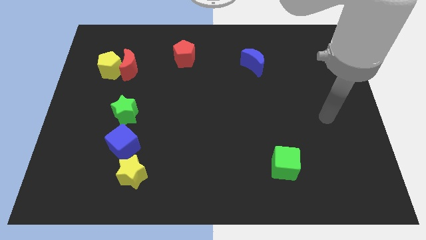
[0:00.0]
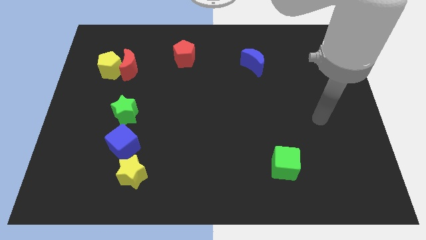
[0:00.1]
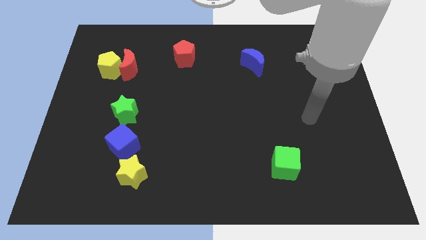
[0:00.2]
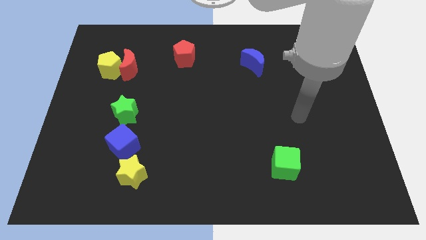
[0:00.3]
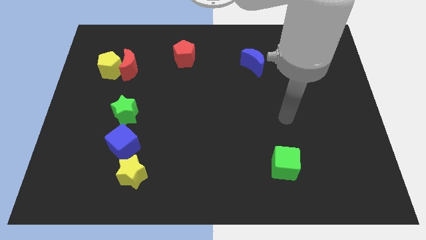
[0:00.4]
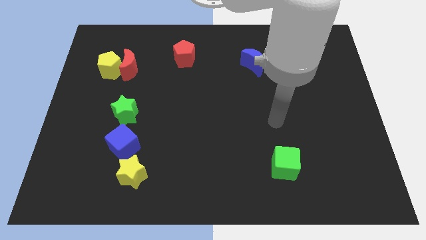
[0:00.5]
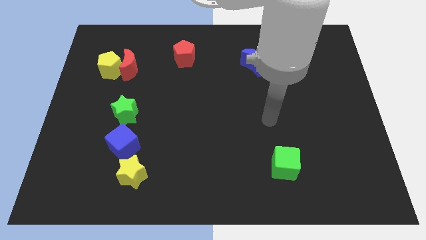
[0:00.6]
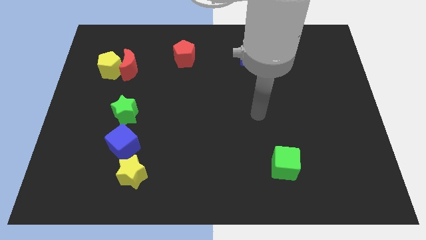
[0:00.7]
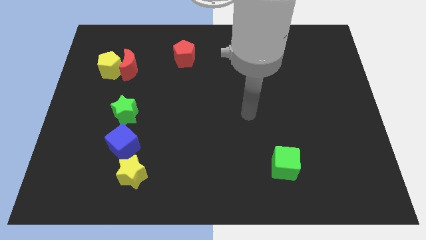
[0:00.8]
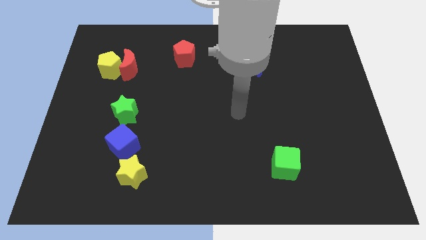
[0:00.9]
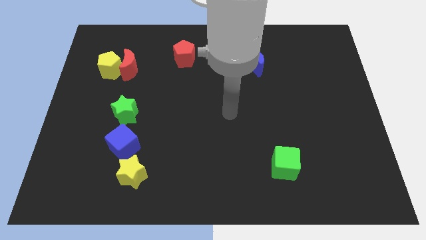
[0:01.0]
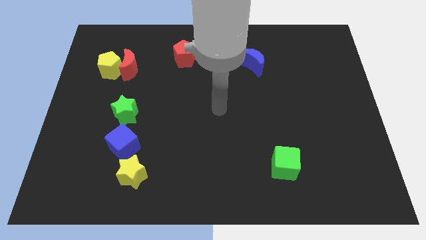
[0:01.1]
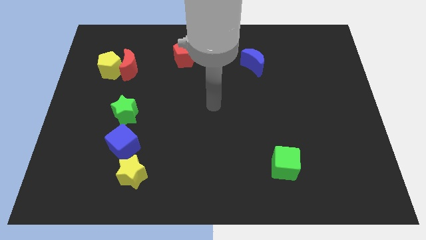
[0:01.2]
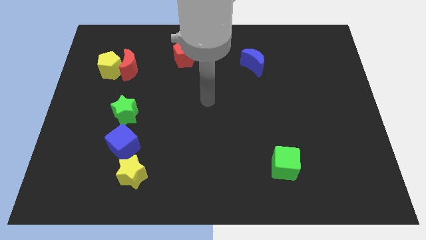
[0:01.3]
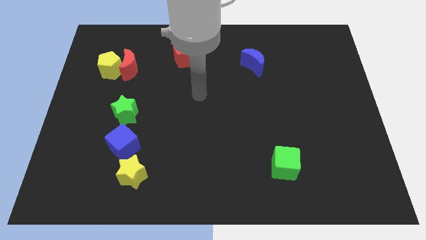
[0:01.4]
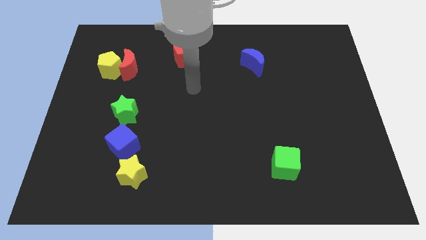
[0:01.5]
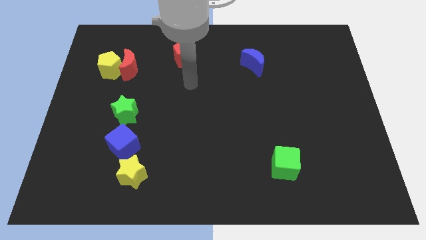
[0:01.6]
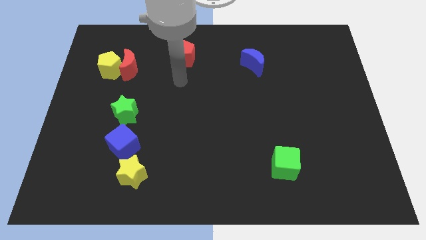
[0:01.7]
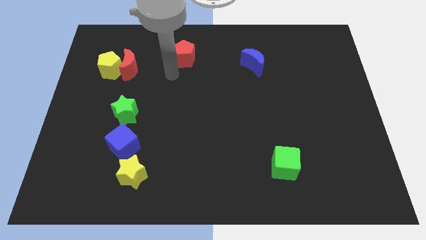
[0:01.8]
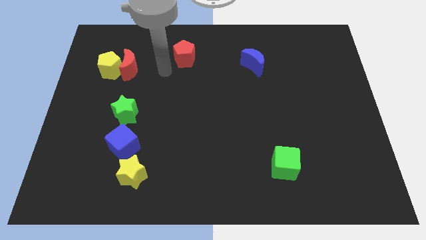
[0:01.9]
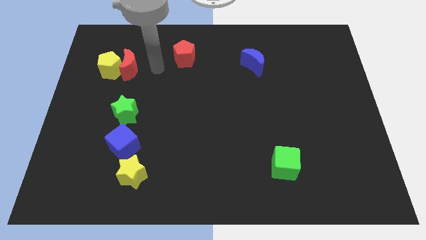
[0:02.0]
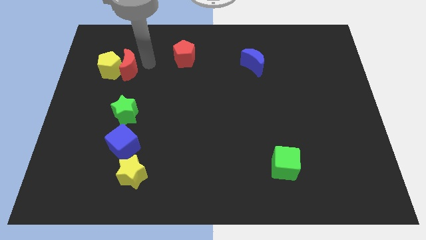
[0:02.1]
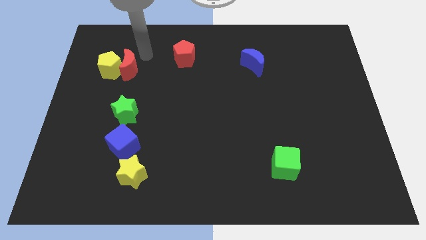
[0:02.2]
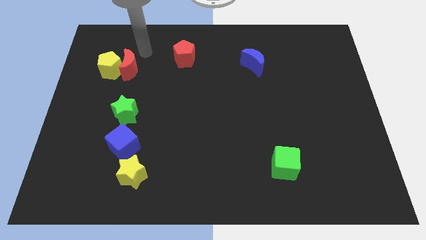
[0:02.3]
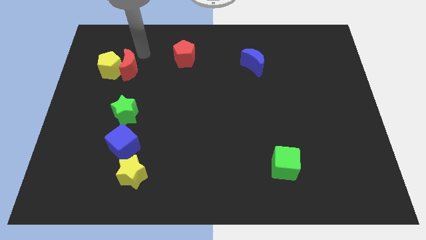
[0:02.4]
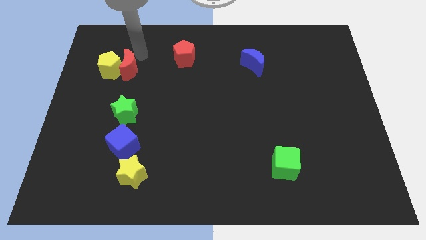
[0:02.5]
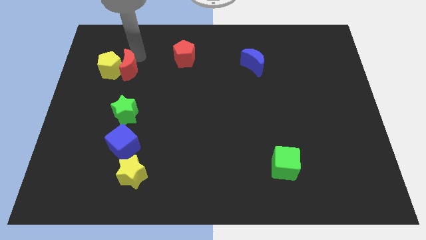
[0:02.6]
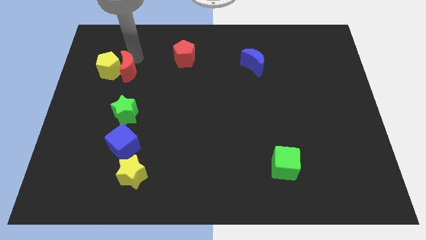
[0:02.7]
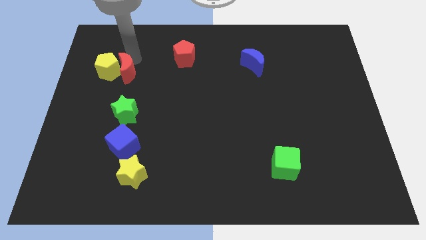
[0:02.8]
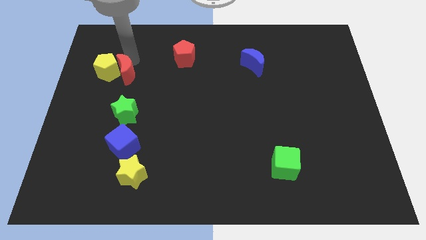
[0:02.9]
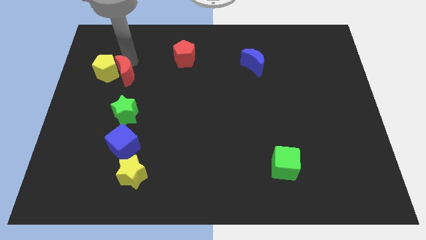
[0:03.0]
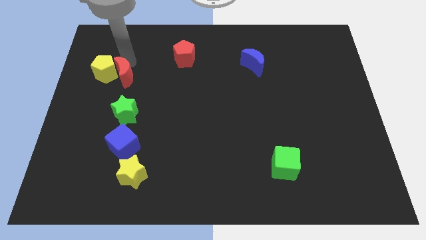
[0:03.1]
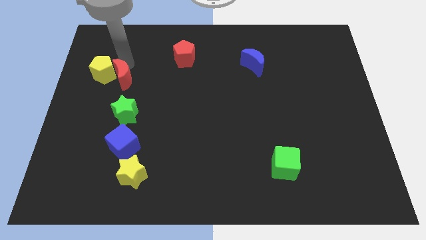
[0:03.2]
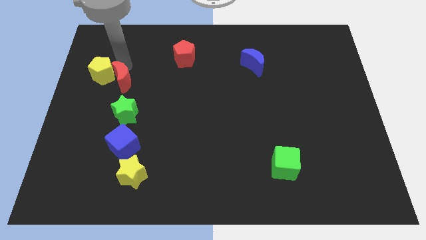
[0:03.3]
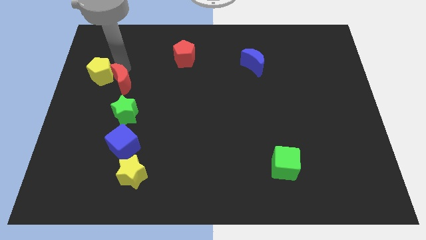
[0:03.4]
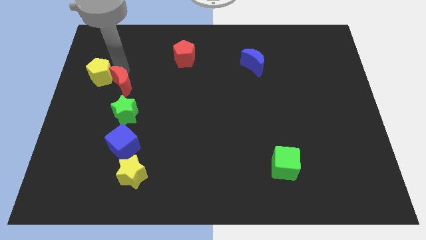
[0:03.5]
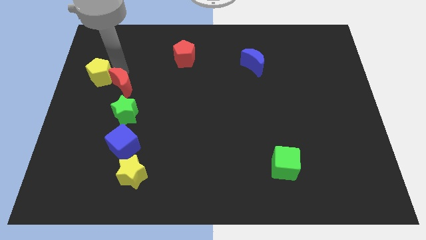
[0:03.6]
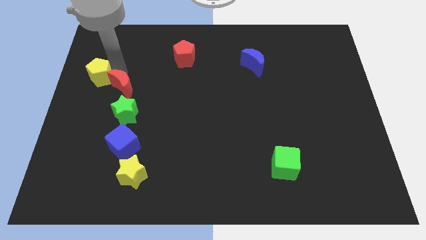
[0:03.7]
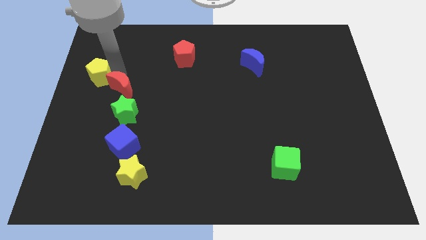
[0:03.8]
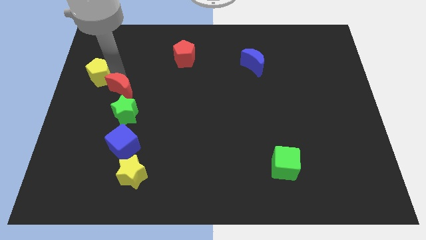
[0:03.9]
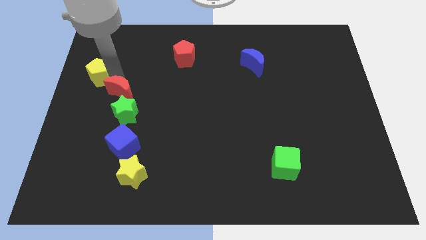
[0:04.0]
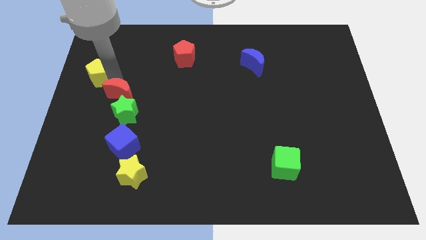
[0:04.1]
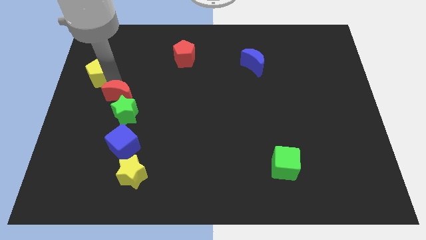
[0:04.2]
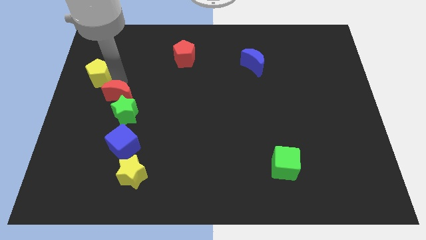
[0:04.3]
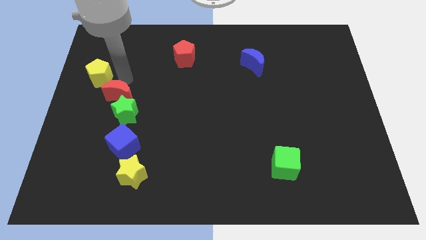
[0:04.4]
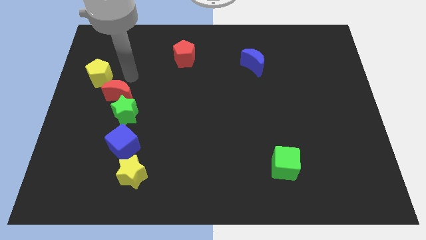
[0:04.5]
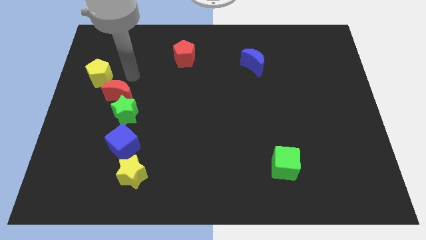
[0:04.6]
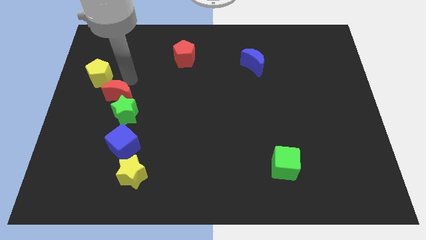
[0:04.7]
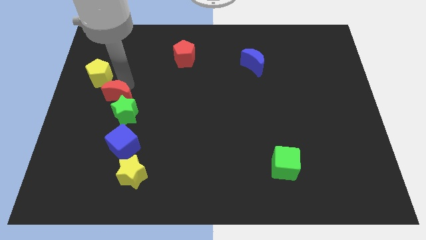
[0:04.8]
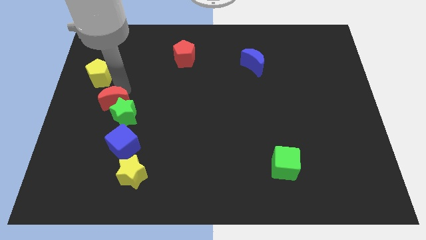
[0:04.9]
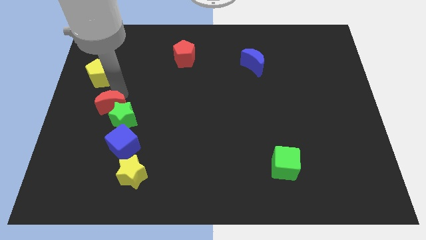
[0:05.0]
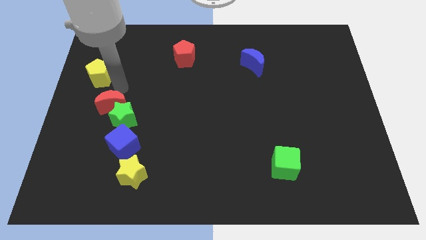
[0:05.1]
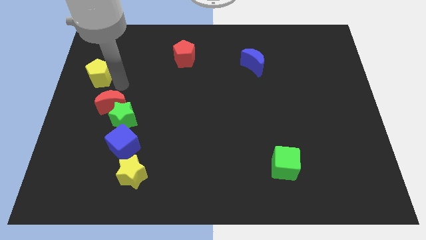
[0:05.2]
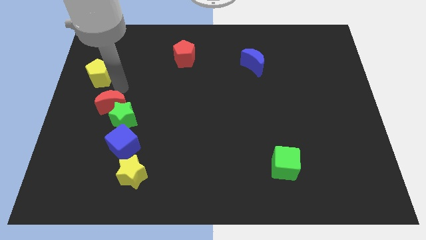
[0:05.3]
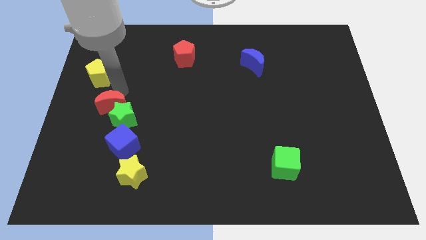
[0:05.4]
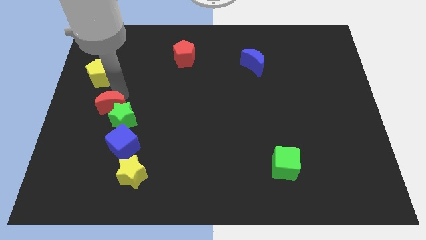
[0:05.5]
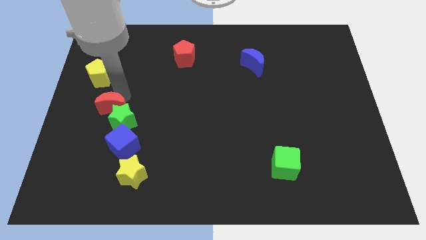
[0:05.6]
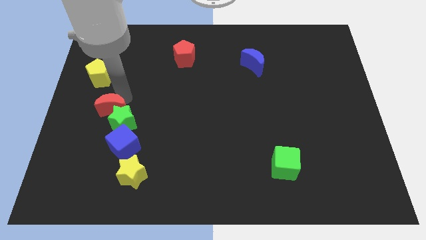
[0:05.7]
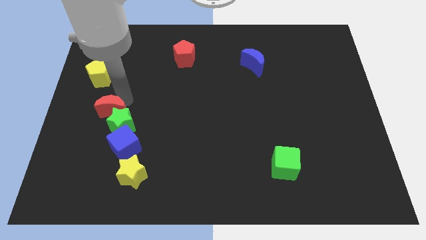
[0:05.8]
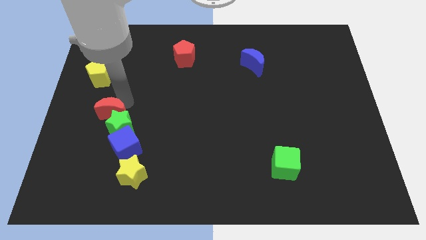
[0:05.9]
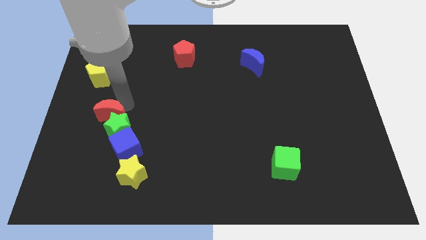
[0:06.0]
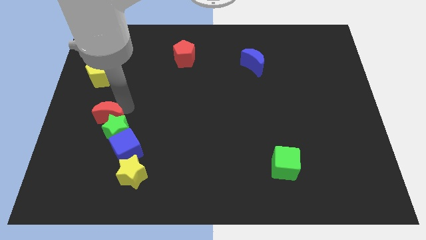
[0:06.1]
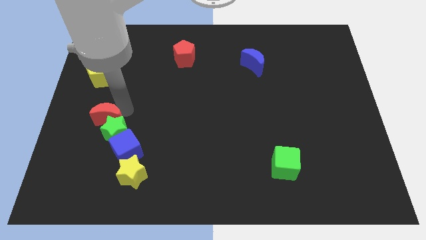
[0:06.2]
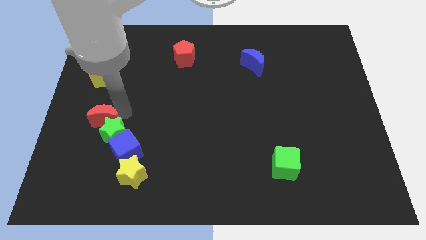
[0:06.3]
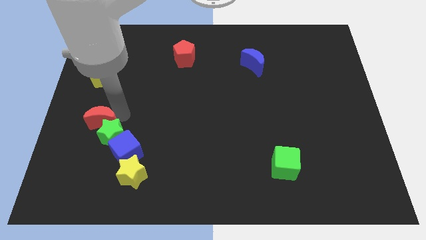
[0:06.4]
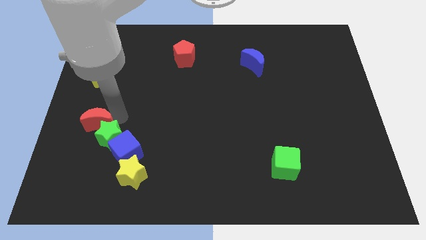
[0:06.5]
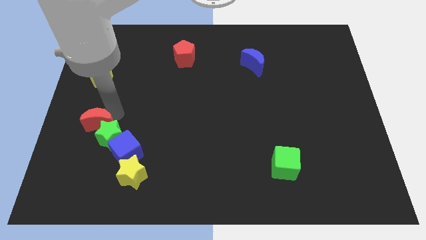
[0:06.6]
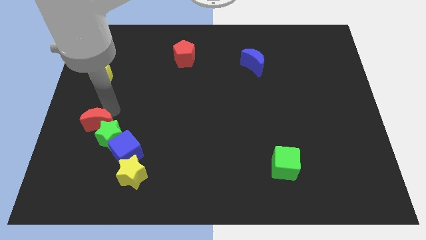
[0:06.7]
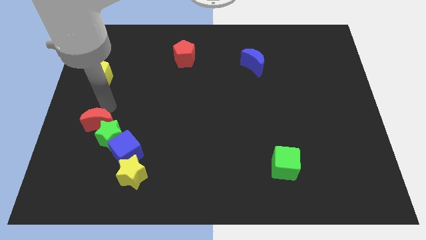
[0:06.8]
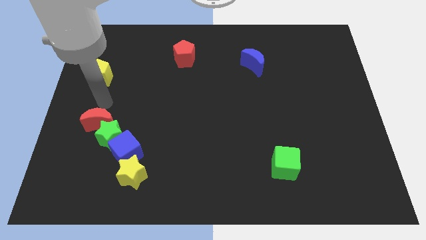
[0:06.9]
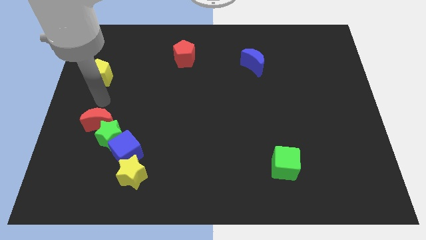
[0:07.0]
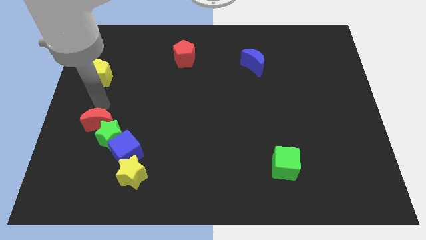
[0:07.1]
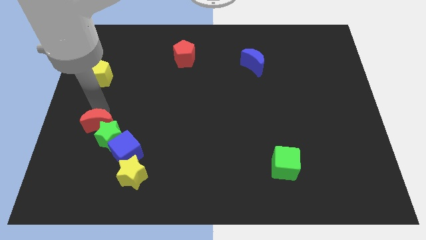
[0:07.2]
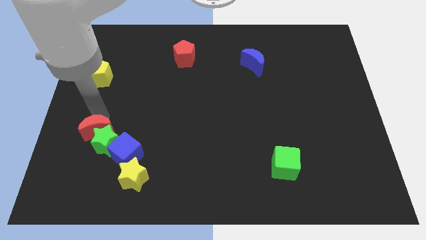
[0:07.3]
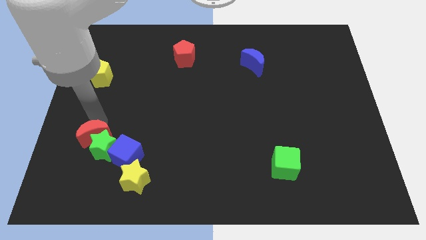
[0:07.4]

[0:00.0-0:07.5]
push the red moon downwards

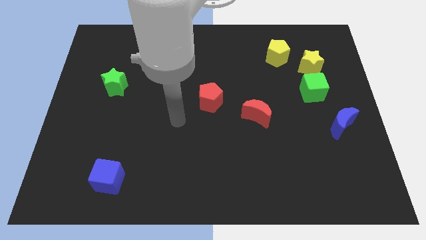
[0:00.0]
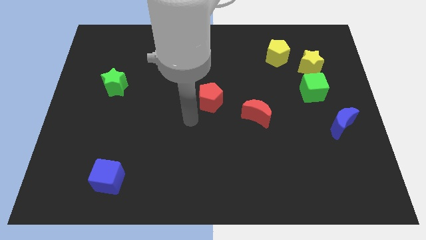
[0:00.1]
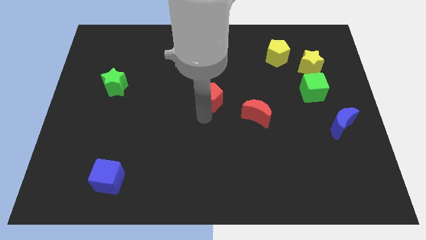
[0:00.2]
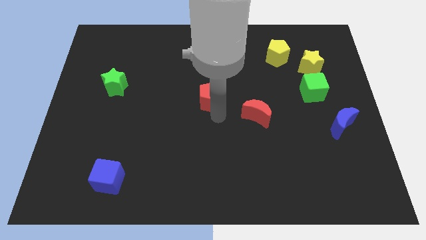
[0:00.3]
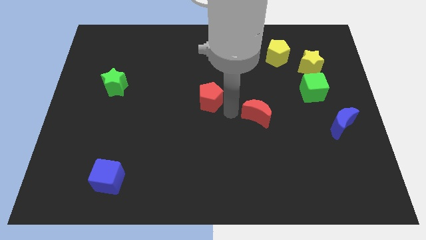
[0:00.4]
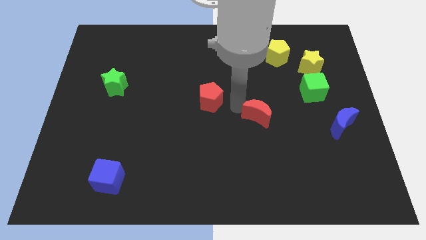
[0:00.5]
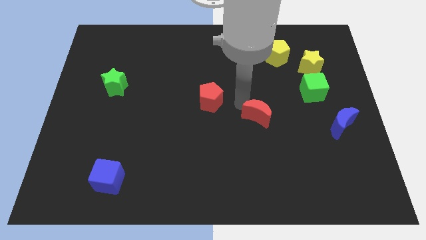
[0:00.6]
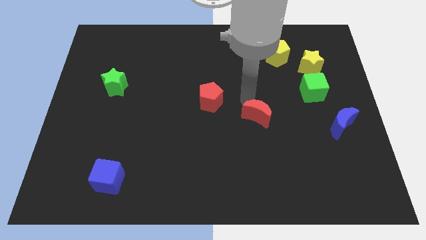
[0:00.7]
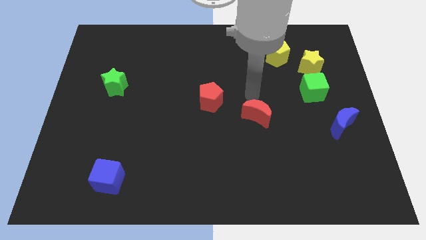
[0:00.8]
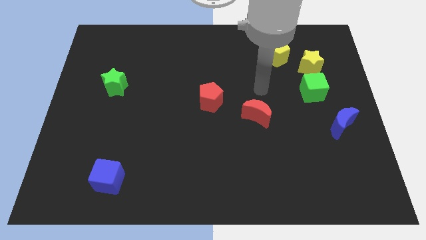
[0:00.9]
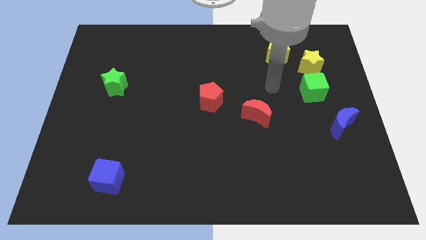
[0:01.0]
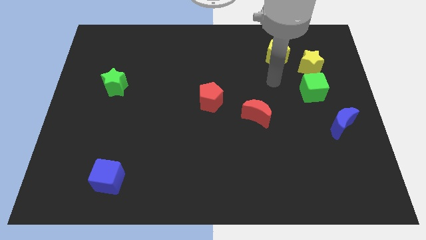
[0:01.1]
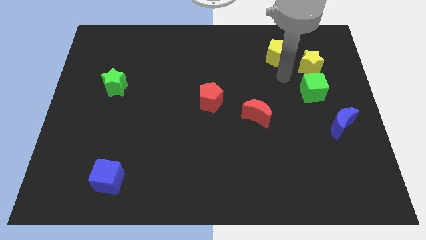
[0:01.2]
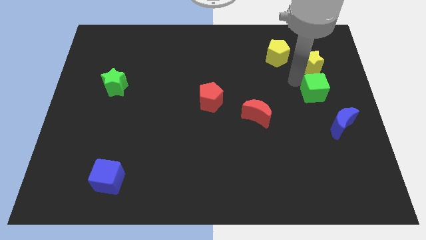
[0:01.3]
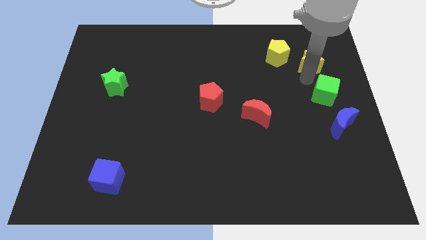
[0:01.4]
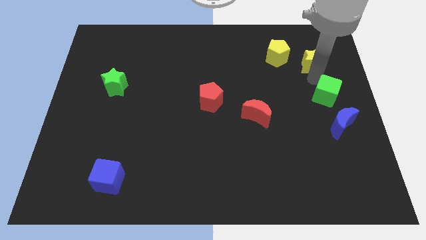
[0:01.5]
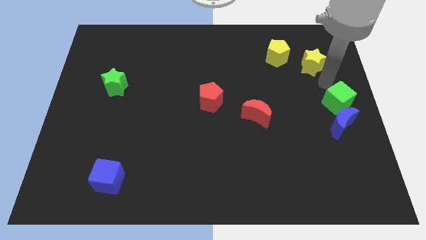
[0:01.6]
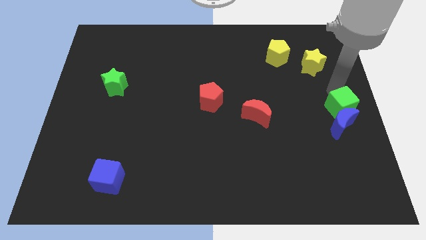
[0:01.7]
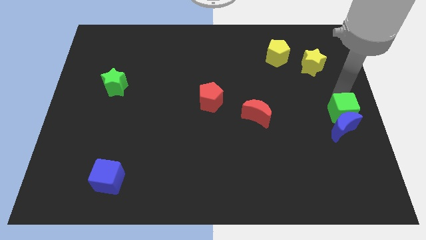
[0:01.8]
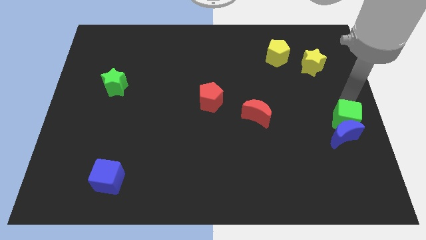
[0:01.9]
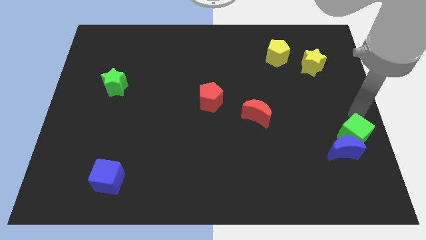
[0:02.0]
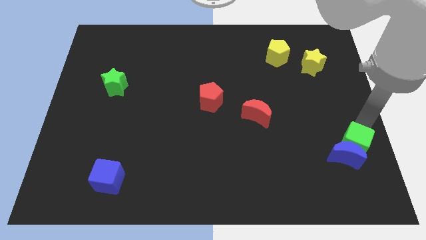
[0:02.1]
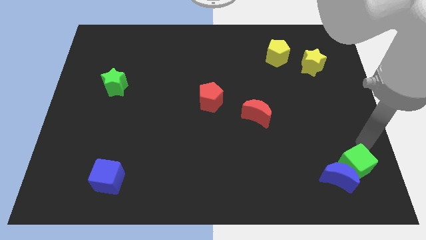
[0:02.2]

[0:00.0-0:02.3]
slightly slide the blue moon downwards and left
